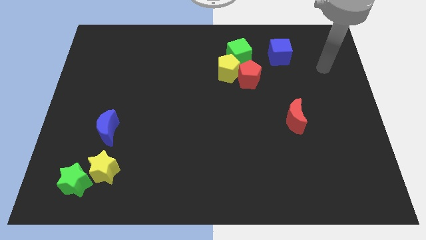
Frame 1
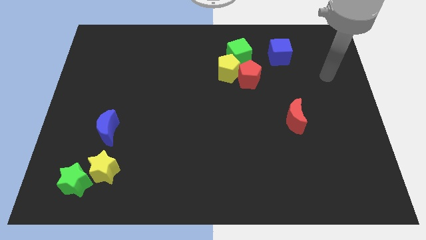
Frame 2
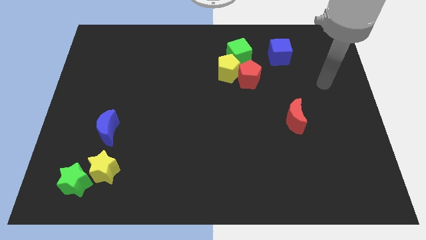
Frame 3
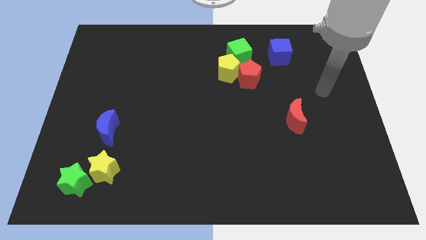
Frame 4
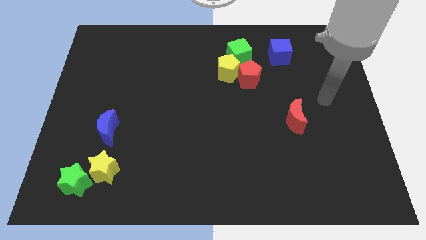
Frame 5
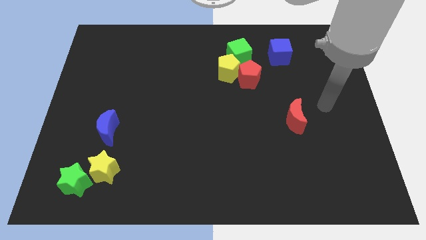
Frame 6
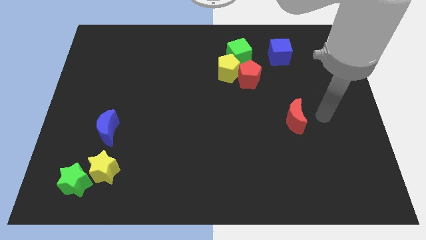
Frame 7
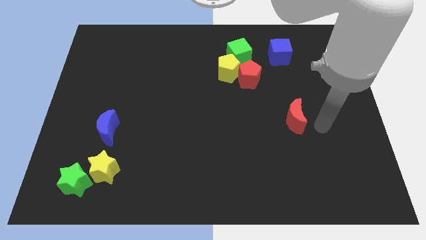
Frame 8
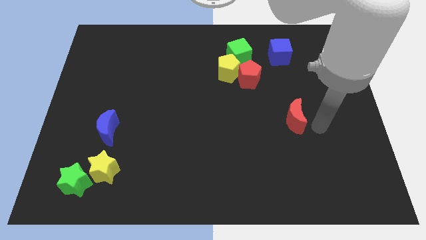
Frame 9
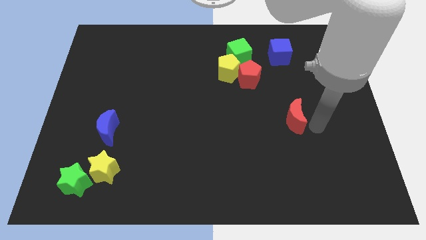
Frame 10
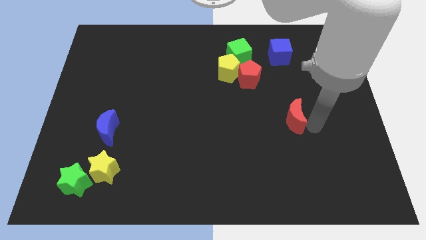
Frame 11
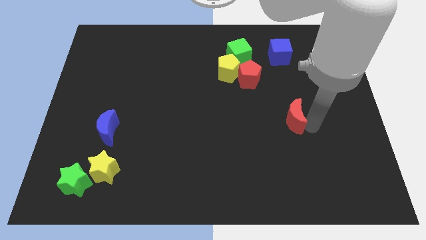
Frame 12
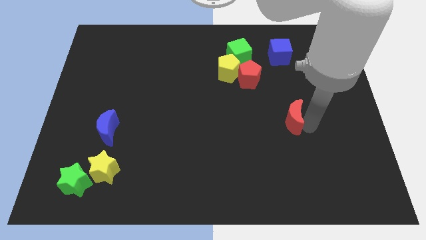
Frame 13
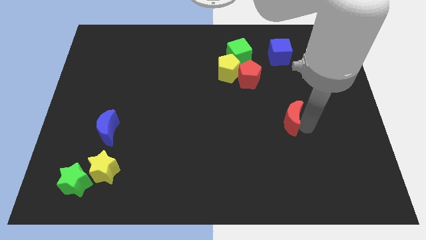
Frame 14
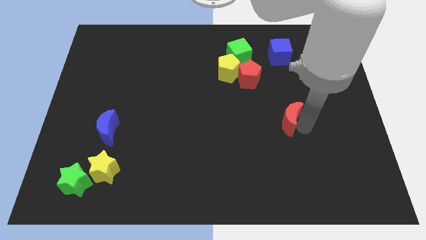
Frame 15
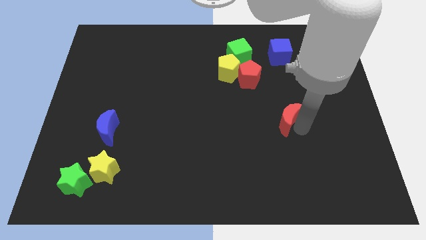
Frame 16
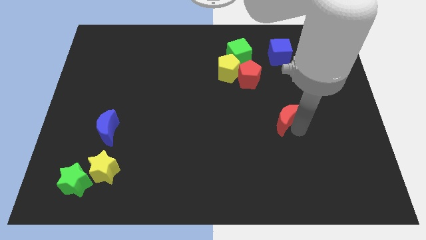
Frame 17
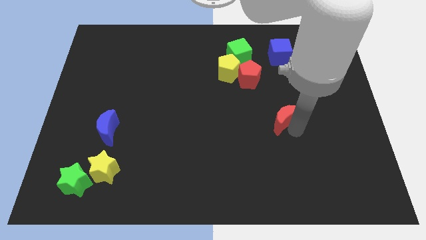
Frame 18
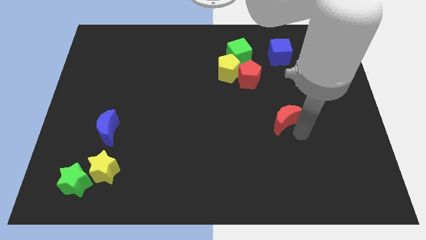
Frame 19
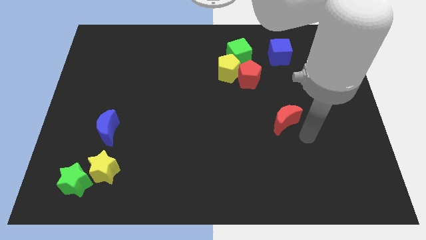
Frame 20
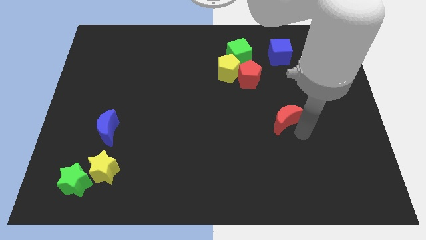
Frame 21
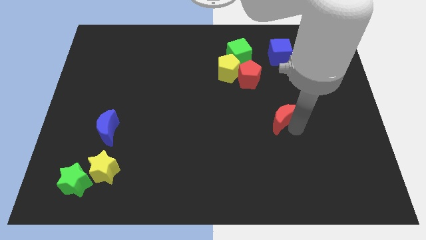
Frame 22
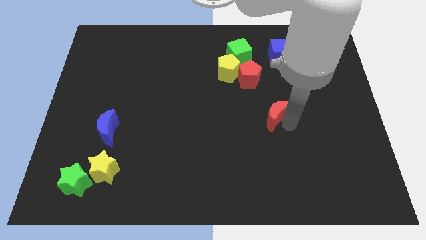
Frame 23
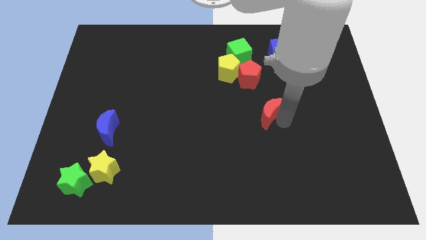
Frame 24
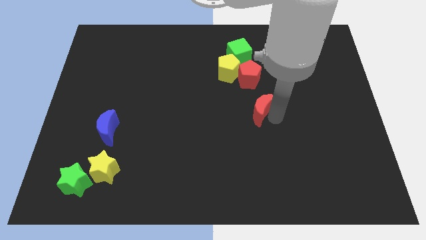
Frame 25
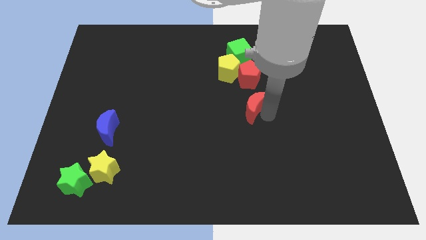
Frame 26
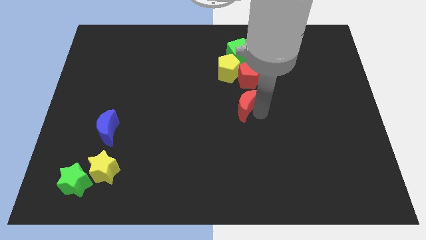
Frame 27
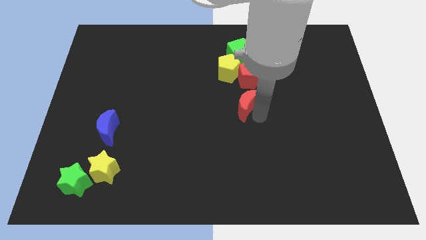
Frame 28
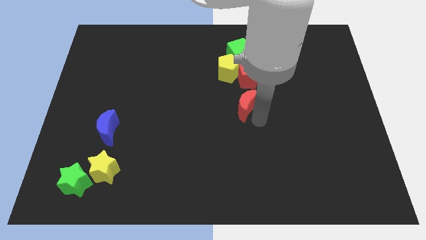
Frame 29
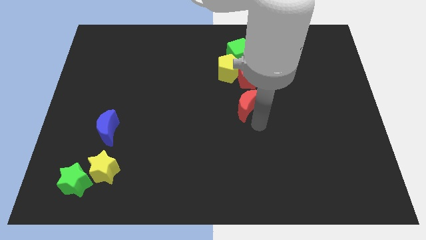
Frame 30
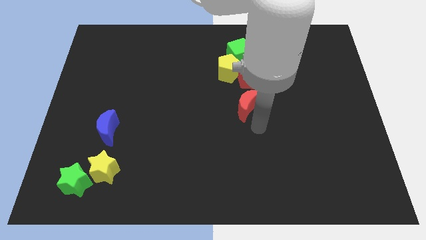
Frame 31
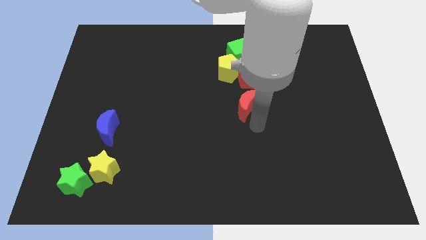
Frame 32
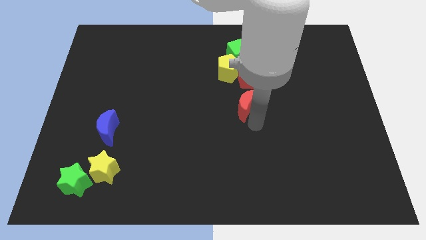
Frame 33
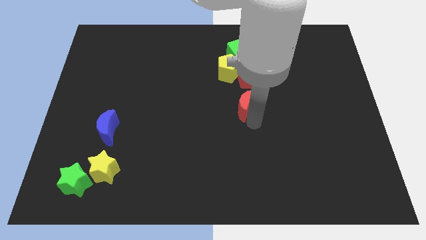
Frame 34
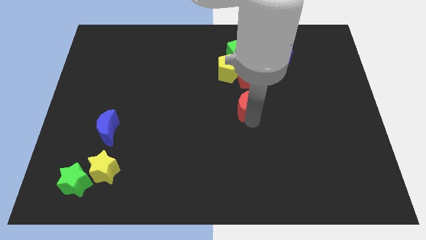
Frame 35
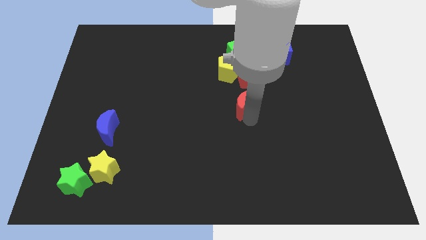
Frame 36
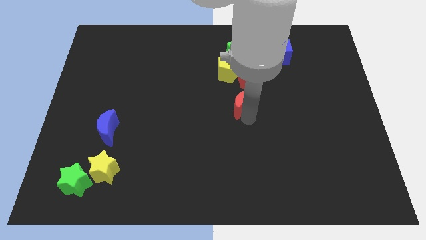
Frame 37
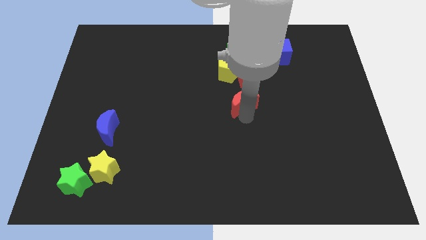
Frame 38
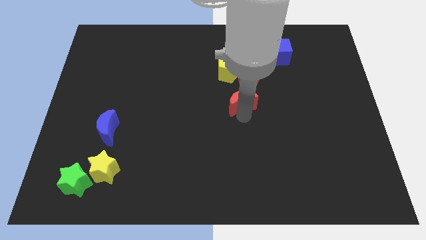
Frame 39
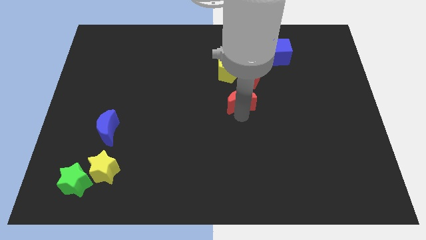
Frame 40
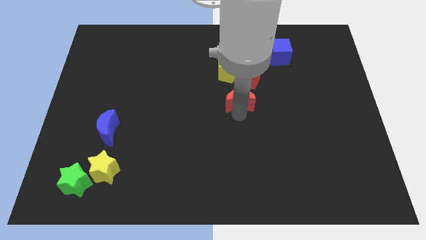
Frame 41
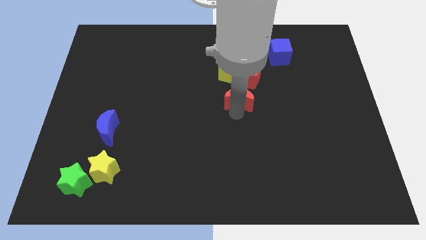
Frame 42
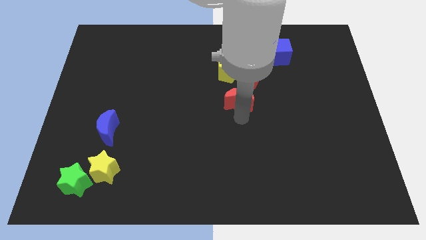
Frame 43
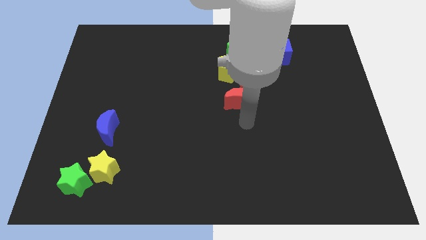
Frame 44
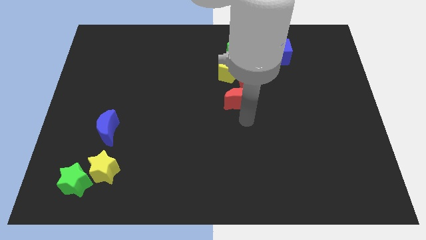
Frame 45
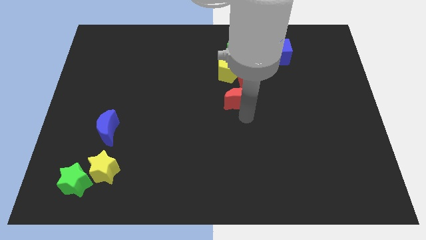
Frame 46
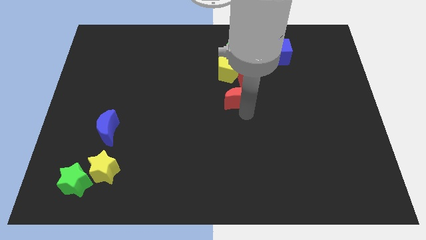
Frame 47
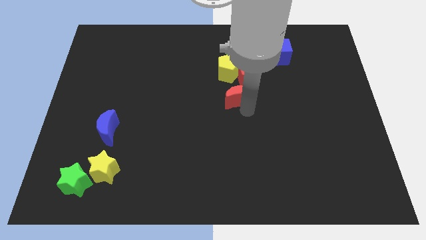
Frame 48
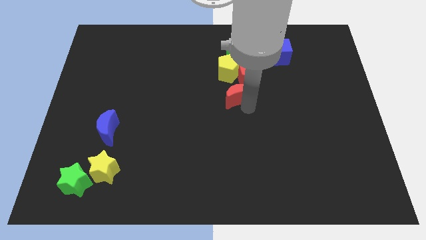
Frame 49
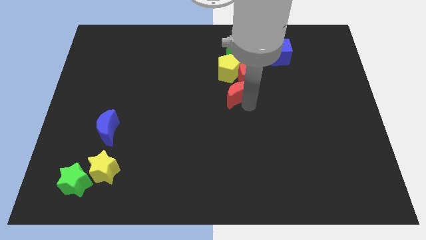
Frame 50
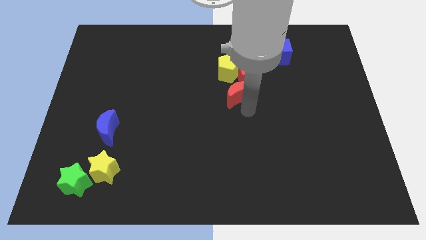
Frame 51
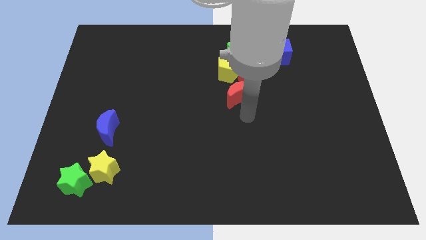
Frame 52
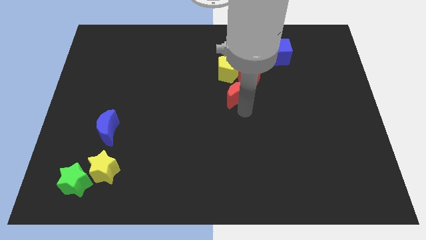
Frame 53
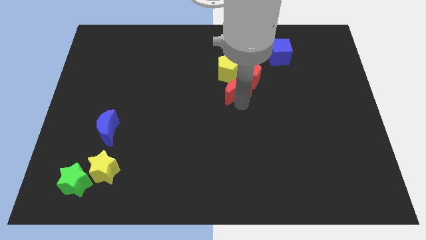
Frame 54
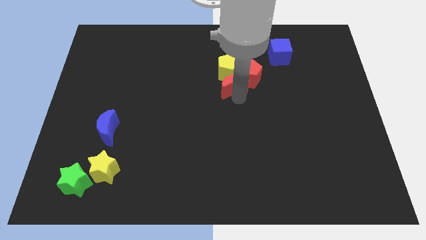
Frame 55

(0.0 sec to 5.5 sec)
put the red moon close to the yellow pentagon

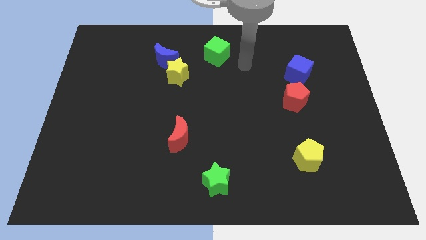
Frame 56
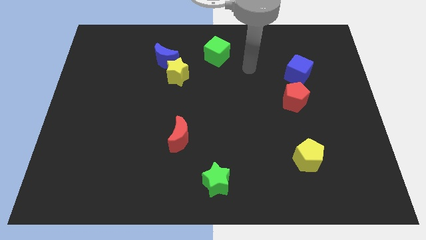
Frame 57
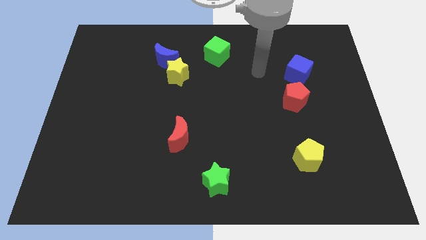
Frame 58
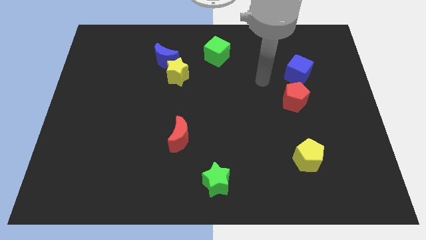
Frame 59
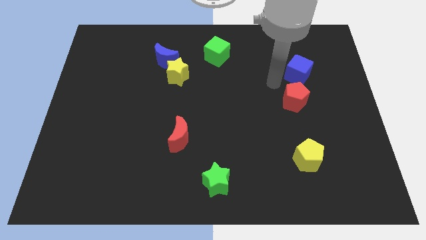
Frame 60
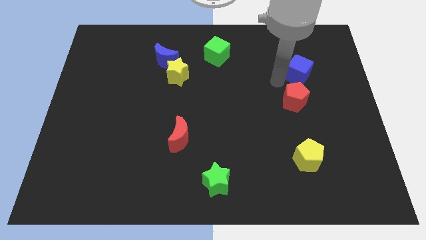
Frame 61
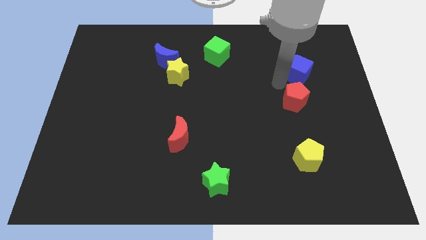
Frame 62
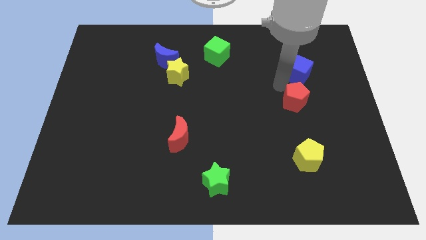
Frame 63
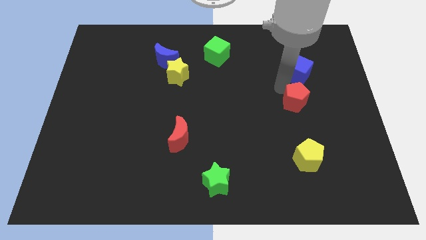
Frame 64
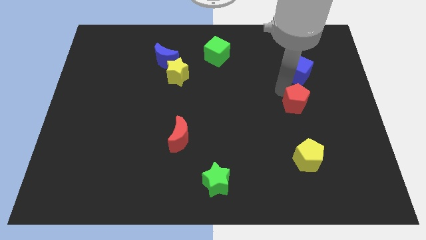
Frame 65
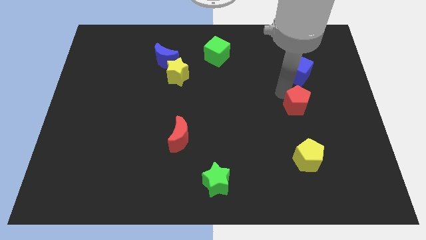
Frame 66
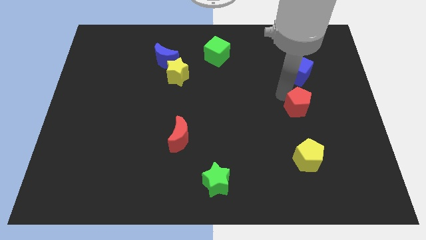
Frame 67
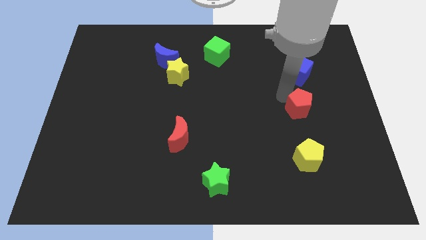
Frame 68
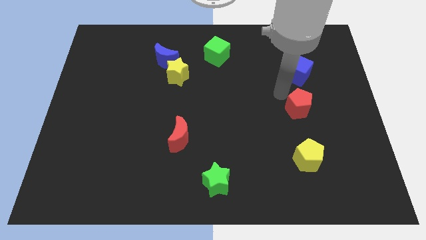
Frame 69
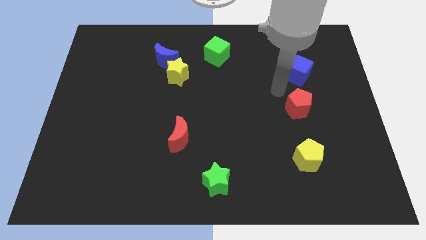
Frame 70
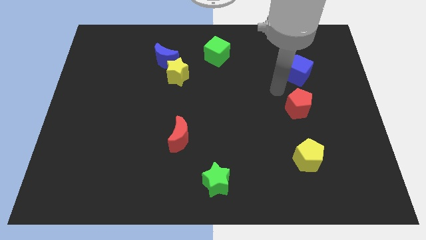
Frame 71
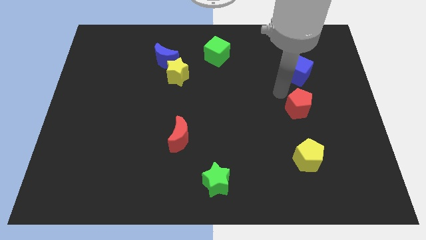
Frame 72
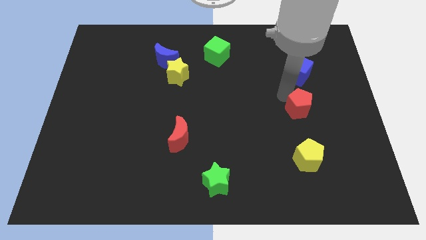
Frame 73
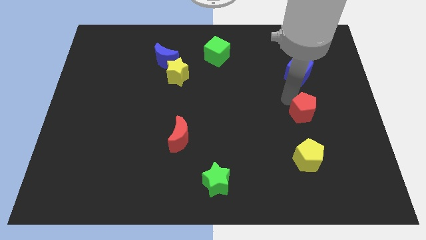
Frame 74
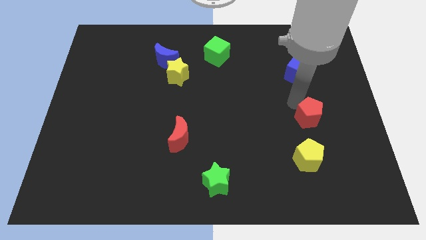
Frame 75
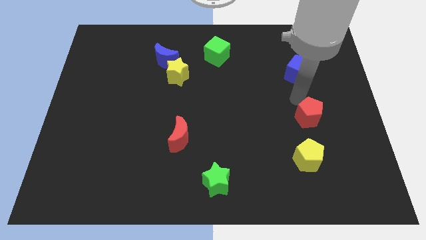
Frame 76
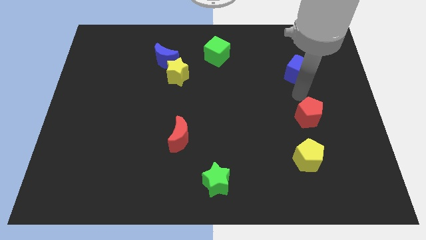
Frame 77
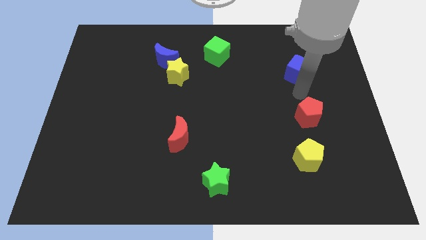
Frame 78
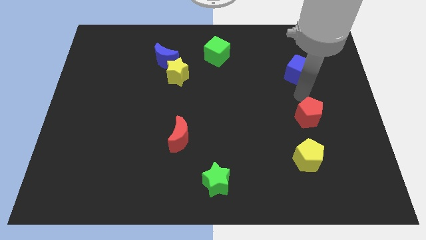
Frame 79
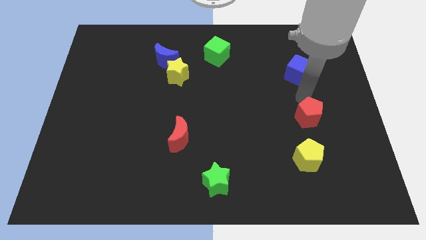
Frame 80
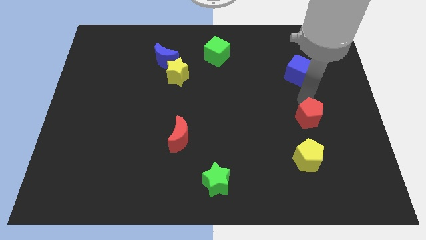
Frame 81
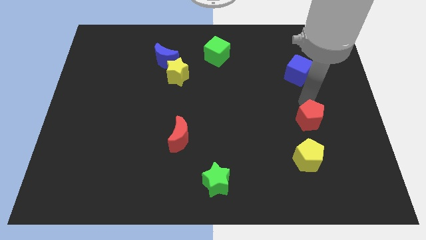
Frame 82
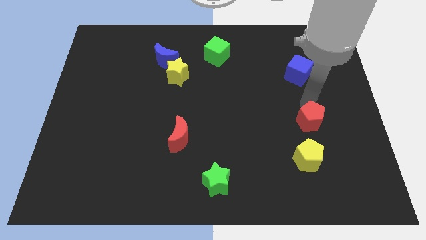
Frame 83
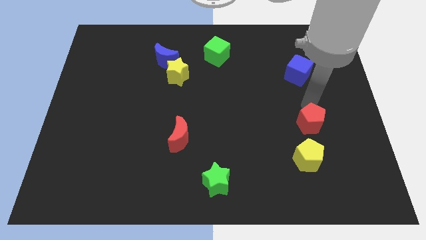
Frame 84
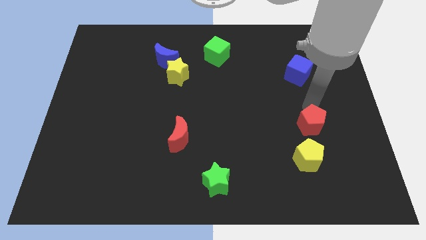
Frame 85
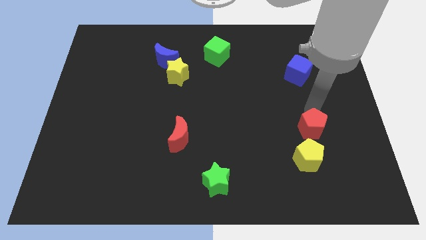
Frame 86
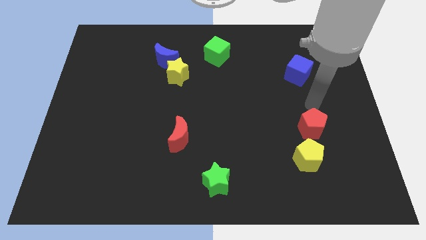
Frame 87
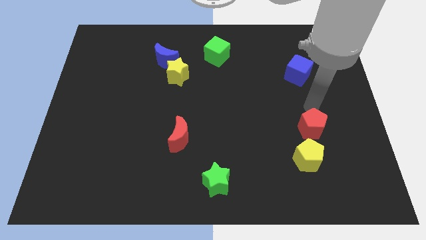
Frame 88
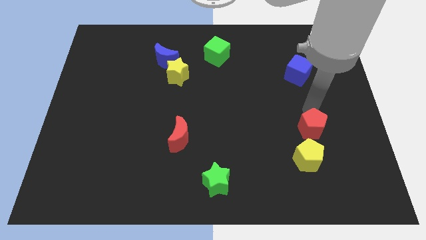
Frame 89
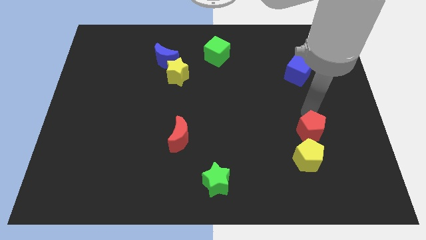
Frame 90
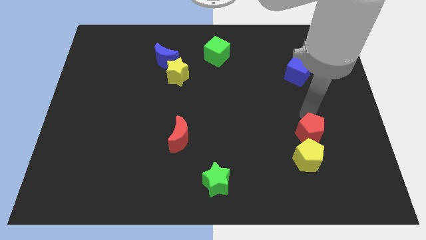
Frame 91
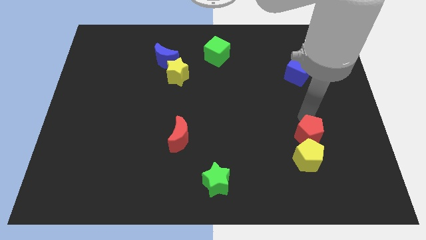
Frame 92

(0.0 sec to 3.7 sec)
put the red pentagon towards the yellow pentagon
